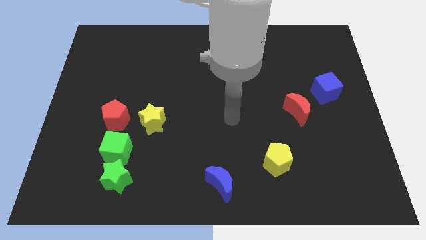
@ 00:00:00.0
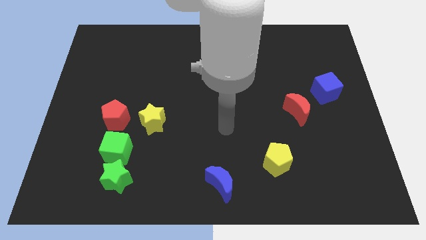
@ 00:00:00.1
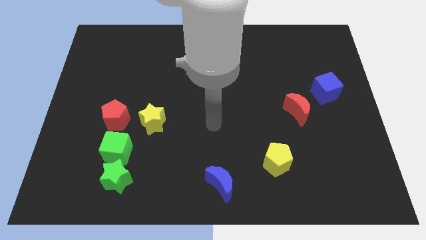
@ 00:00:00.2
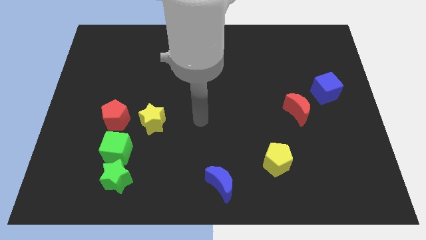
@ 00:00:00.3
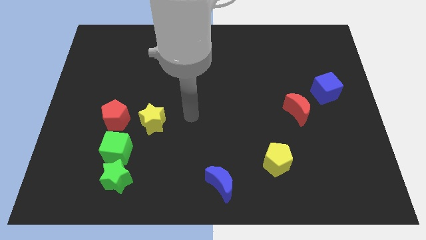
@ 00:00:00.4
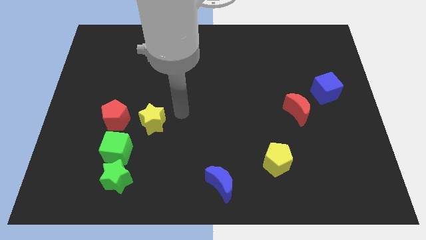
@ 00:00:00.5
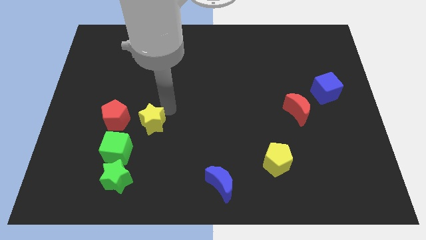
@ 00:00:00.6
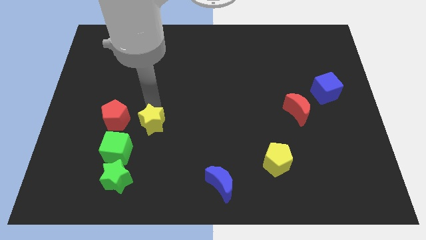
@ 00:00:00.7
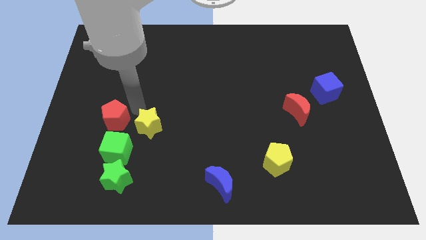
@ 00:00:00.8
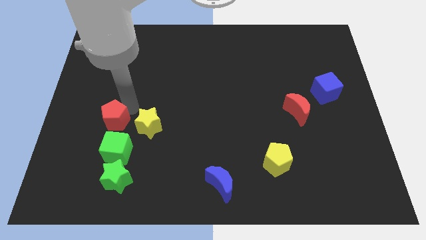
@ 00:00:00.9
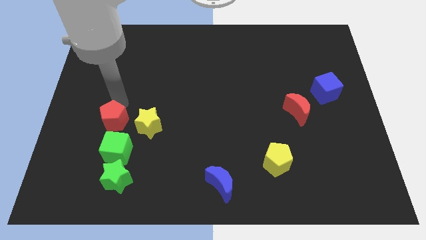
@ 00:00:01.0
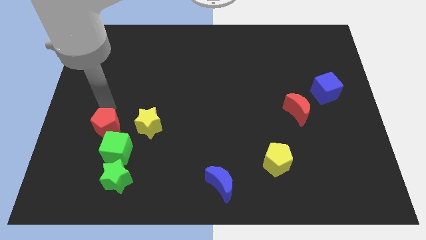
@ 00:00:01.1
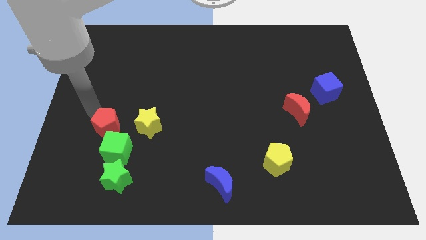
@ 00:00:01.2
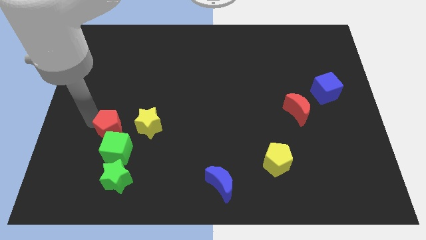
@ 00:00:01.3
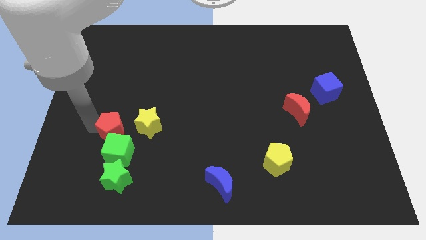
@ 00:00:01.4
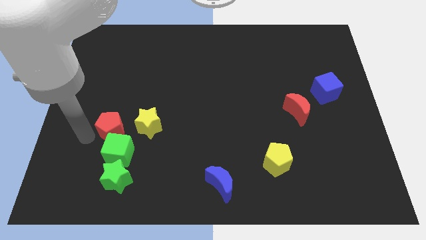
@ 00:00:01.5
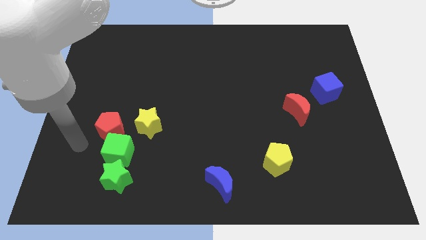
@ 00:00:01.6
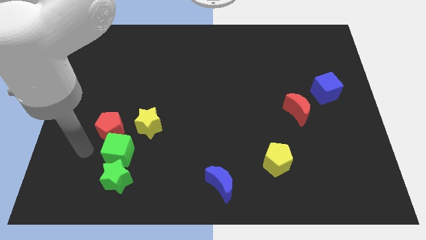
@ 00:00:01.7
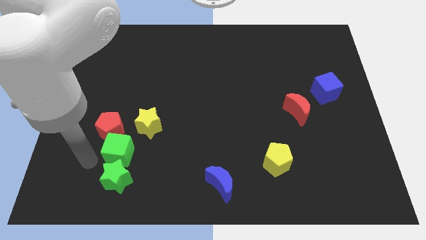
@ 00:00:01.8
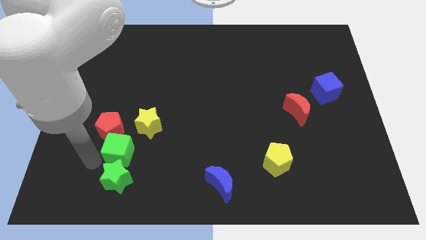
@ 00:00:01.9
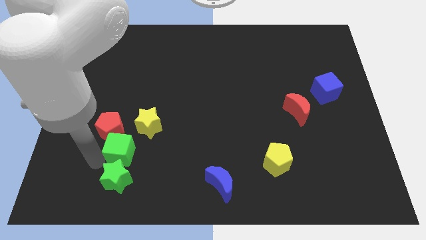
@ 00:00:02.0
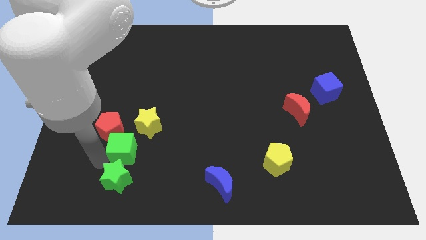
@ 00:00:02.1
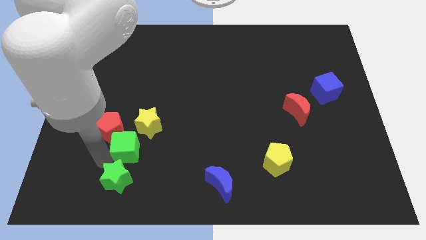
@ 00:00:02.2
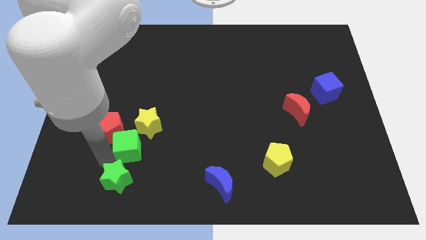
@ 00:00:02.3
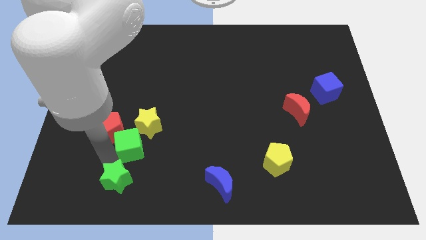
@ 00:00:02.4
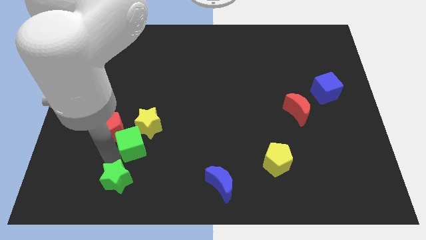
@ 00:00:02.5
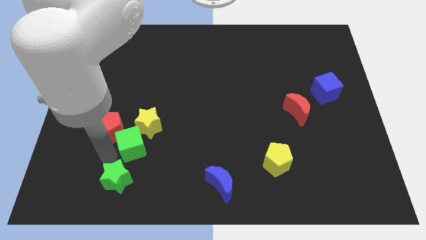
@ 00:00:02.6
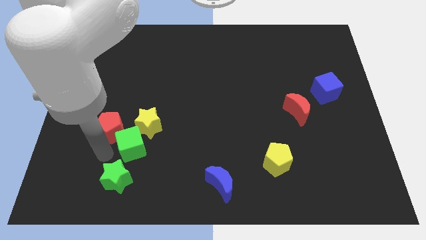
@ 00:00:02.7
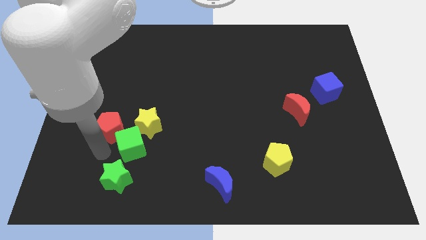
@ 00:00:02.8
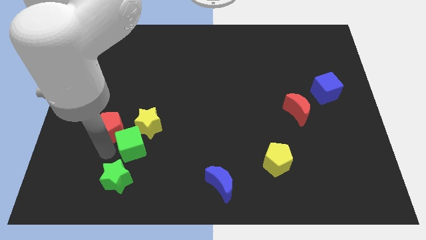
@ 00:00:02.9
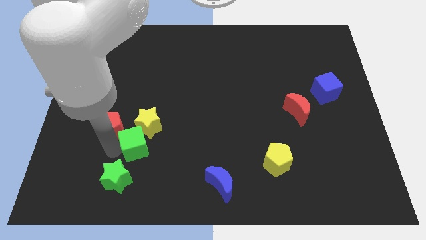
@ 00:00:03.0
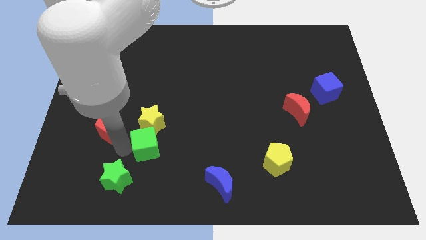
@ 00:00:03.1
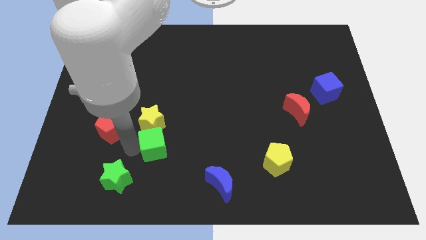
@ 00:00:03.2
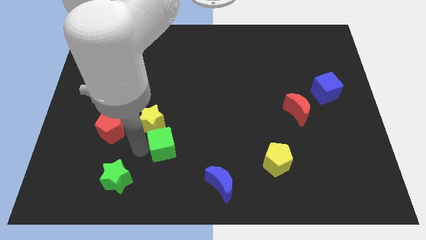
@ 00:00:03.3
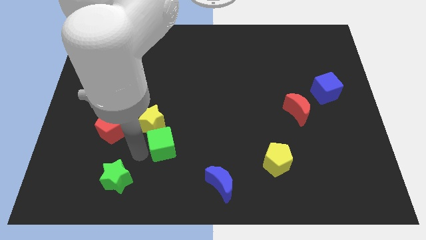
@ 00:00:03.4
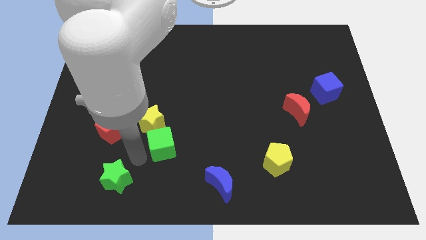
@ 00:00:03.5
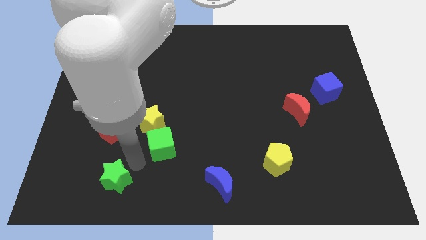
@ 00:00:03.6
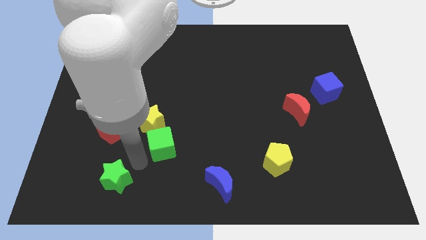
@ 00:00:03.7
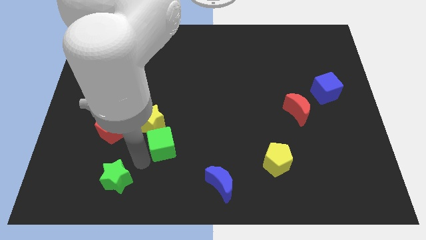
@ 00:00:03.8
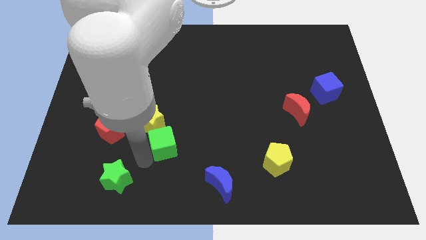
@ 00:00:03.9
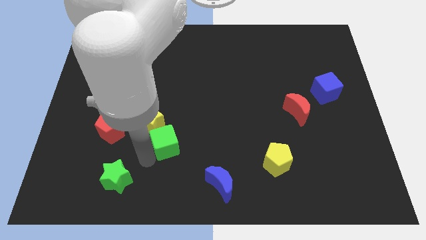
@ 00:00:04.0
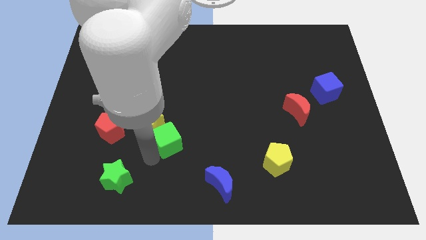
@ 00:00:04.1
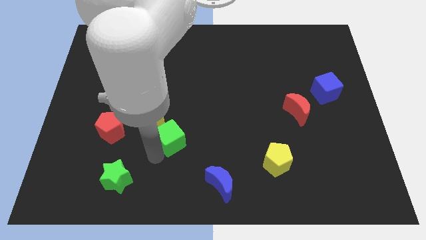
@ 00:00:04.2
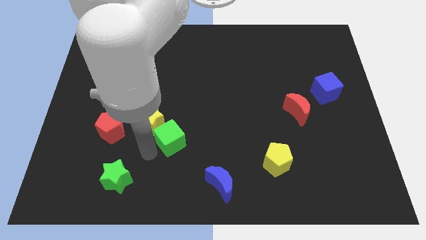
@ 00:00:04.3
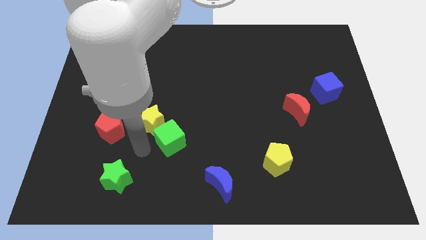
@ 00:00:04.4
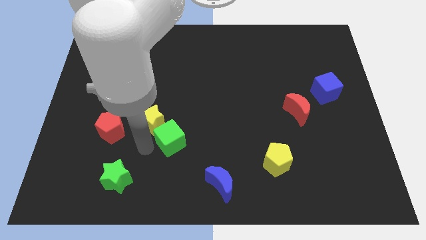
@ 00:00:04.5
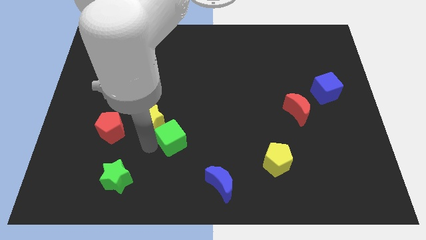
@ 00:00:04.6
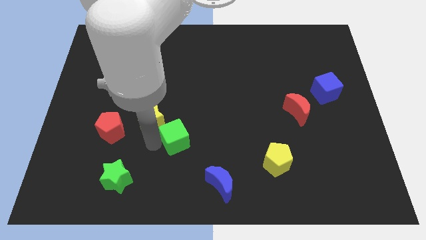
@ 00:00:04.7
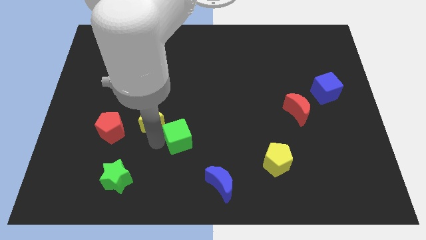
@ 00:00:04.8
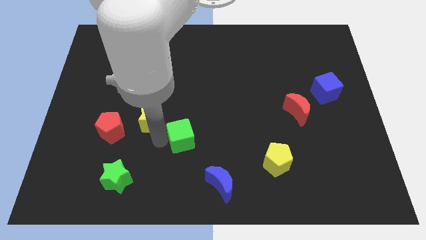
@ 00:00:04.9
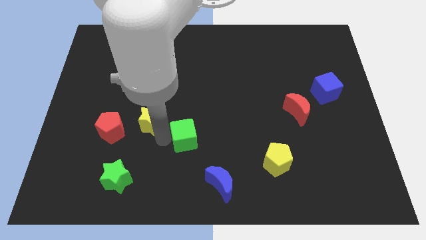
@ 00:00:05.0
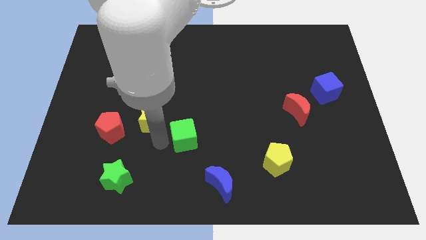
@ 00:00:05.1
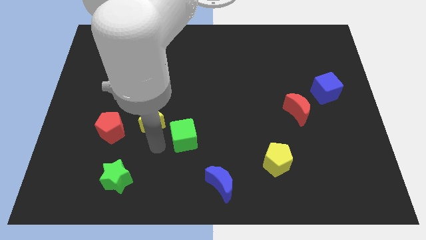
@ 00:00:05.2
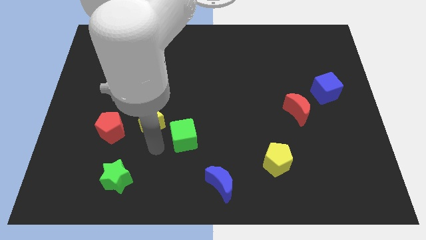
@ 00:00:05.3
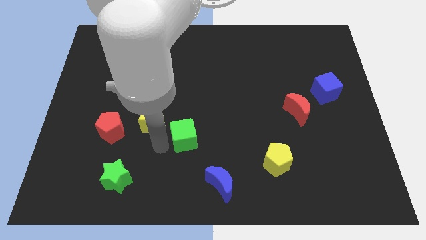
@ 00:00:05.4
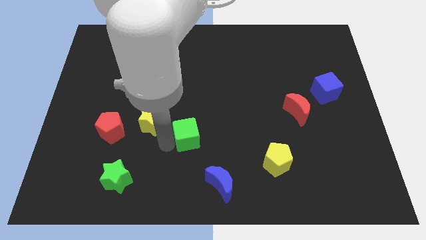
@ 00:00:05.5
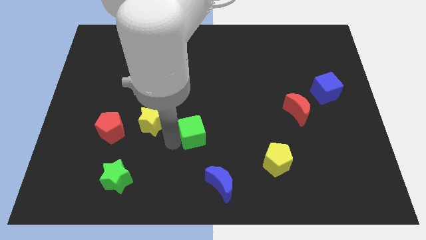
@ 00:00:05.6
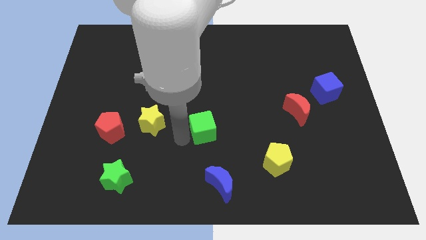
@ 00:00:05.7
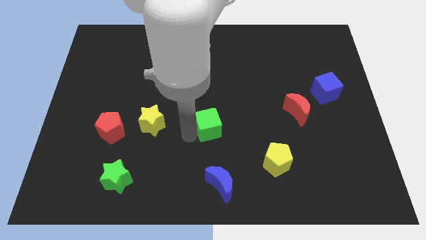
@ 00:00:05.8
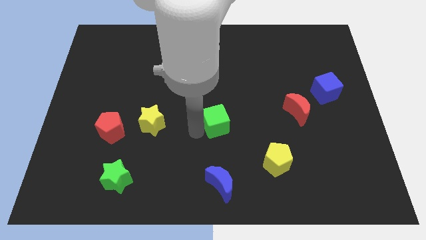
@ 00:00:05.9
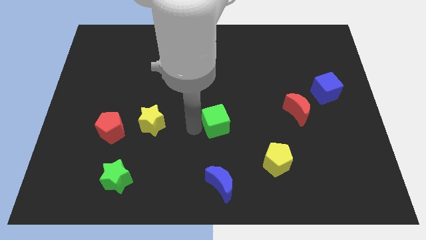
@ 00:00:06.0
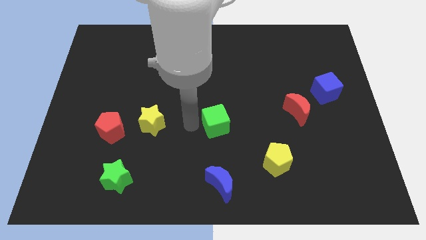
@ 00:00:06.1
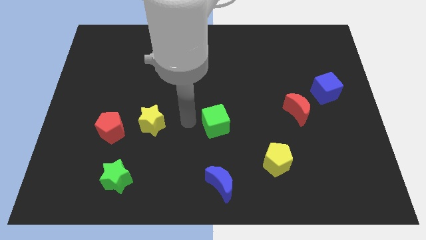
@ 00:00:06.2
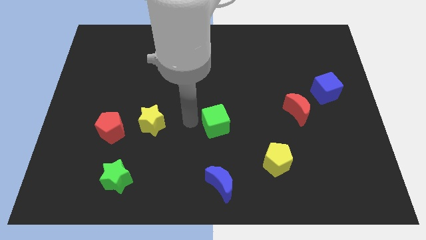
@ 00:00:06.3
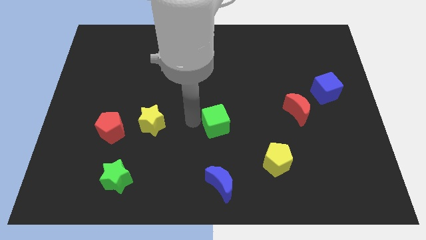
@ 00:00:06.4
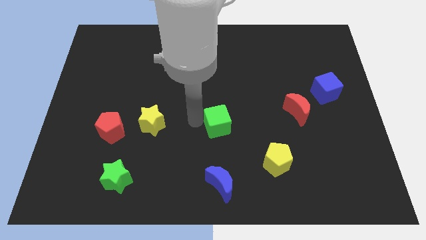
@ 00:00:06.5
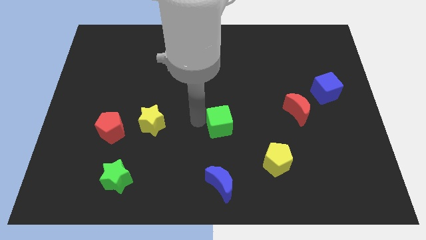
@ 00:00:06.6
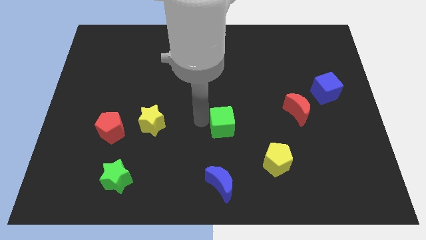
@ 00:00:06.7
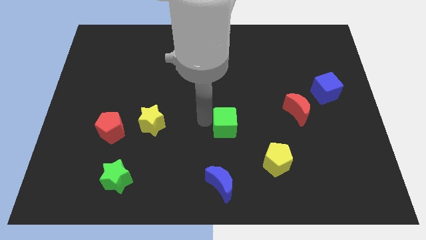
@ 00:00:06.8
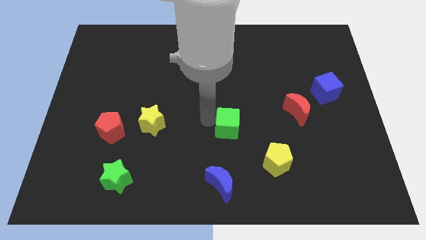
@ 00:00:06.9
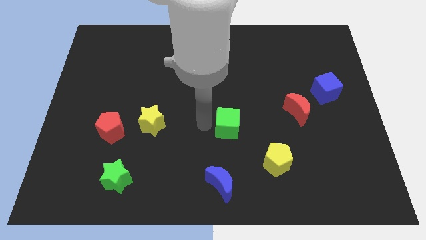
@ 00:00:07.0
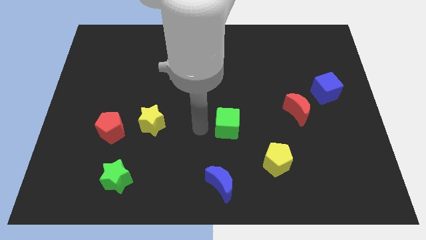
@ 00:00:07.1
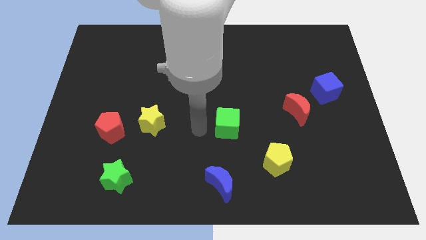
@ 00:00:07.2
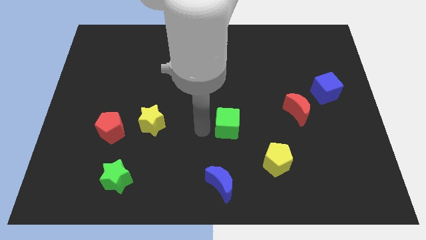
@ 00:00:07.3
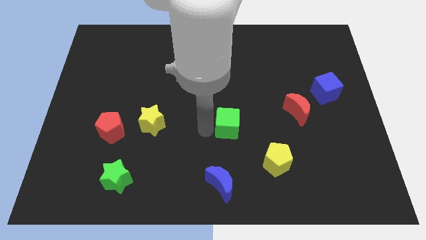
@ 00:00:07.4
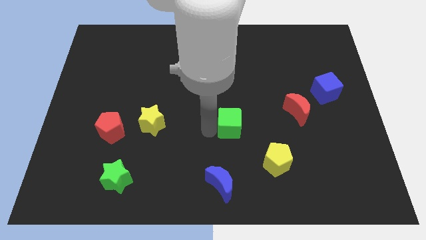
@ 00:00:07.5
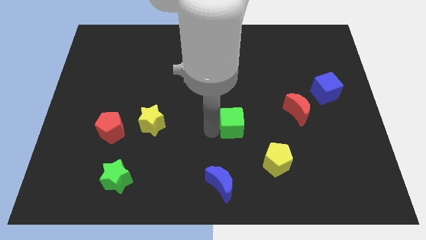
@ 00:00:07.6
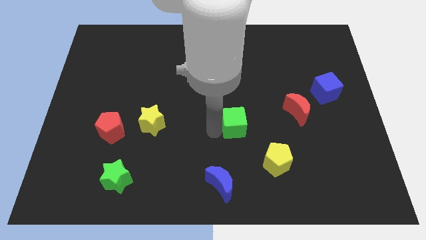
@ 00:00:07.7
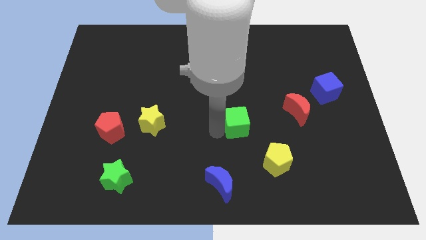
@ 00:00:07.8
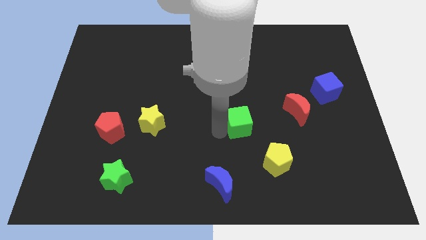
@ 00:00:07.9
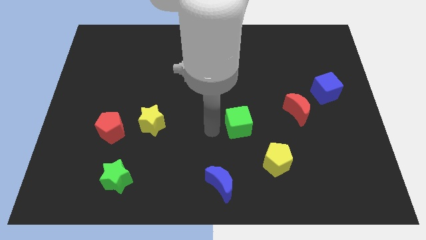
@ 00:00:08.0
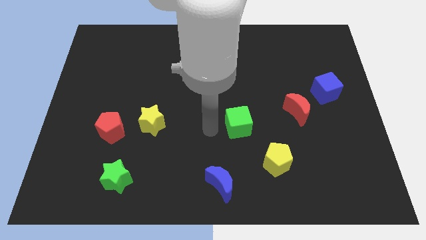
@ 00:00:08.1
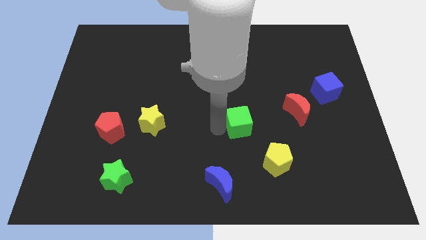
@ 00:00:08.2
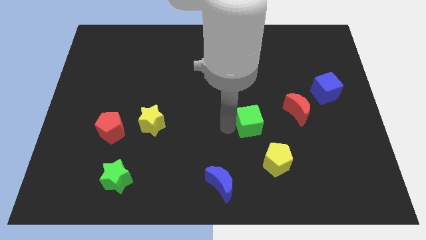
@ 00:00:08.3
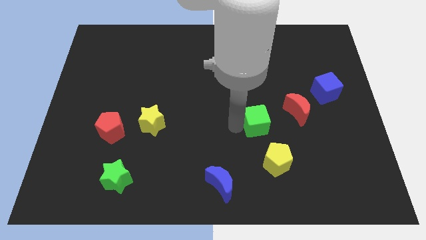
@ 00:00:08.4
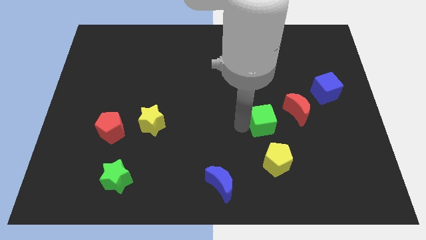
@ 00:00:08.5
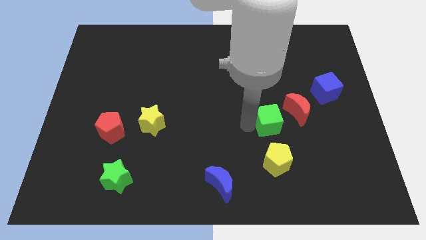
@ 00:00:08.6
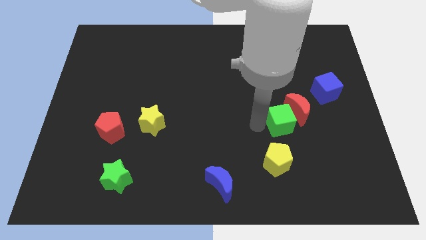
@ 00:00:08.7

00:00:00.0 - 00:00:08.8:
put the green cube to the red moon
